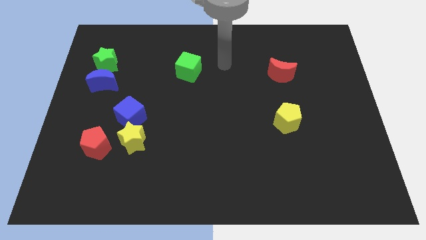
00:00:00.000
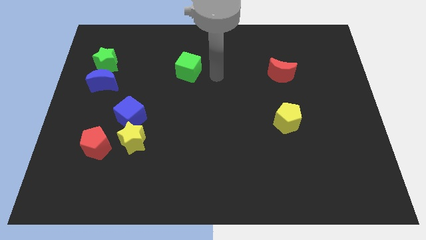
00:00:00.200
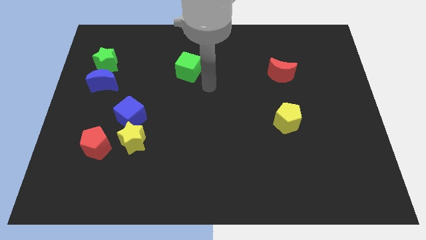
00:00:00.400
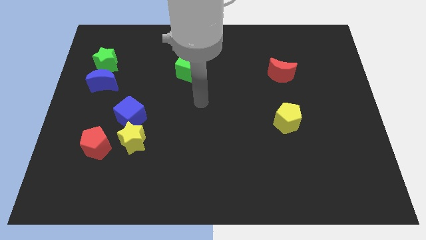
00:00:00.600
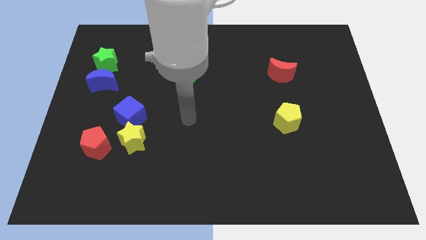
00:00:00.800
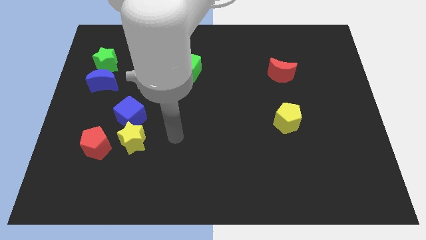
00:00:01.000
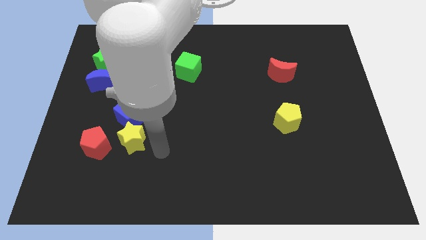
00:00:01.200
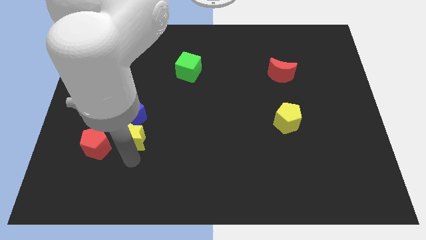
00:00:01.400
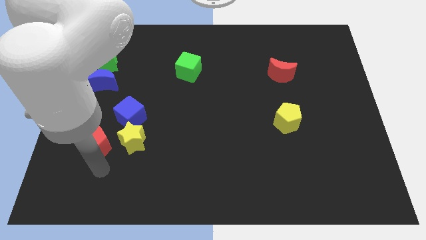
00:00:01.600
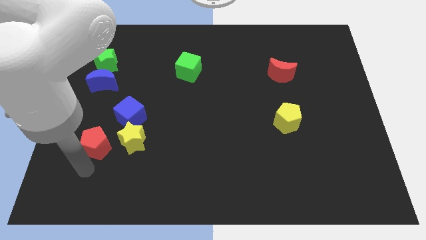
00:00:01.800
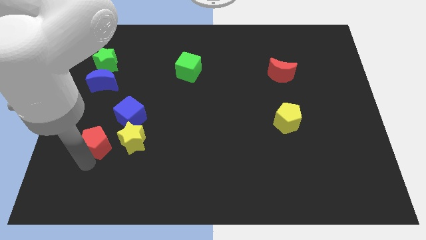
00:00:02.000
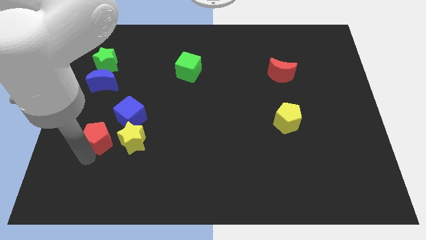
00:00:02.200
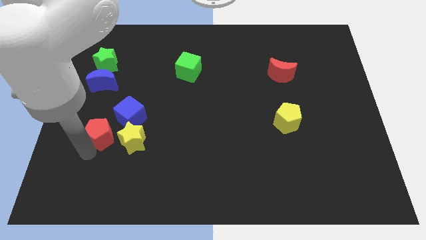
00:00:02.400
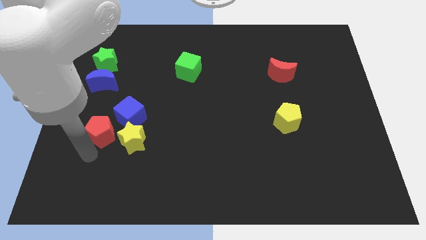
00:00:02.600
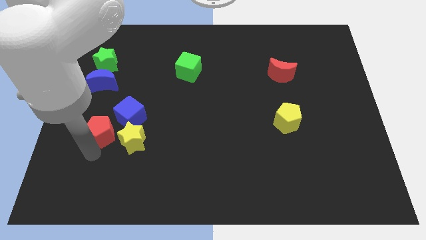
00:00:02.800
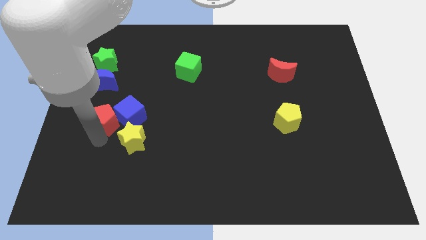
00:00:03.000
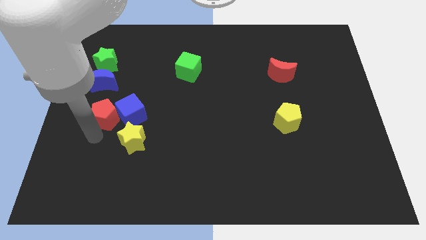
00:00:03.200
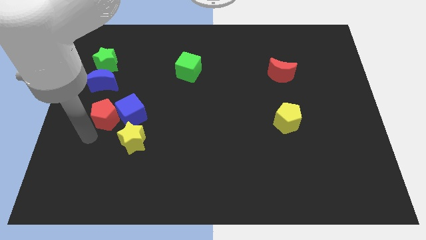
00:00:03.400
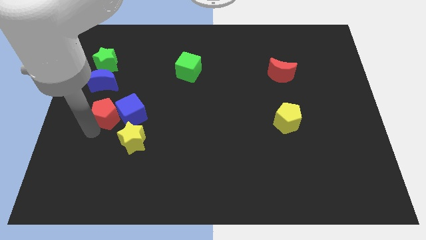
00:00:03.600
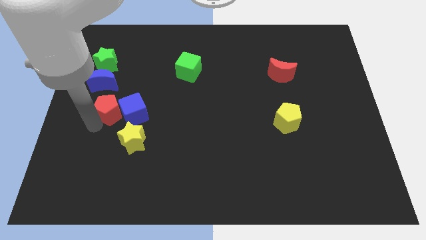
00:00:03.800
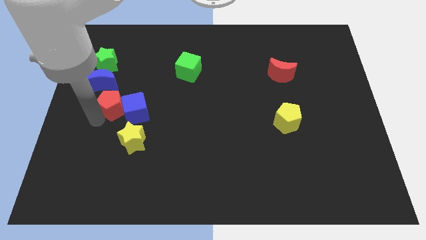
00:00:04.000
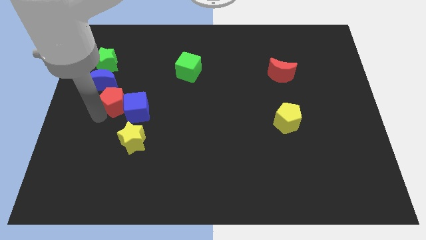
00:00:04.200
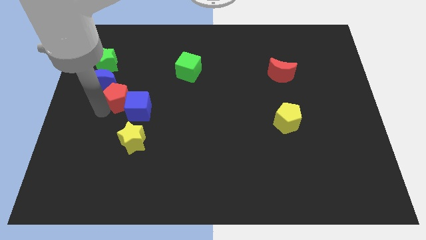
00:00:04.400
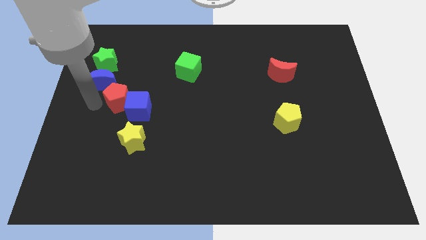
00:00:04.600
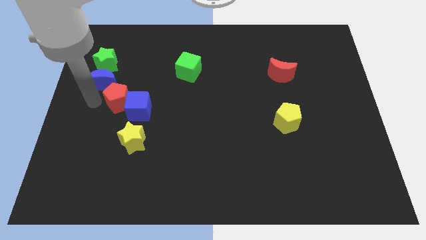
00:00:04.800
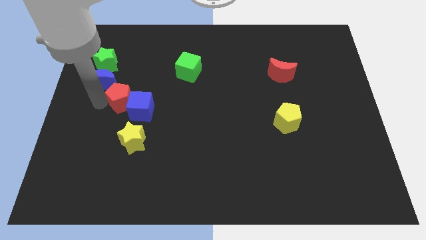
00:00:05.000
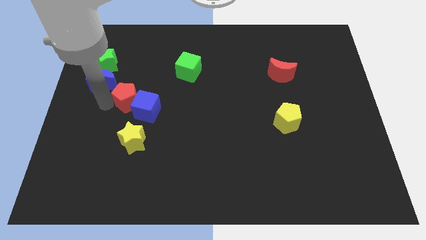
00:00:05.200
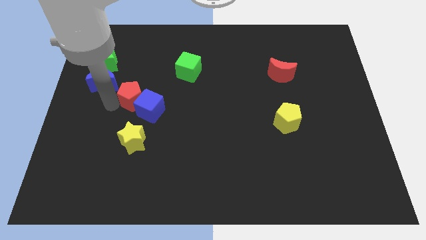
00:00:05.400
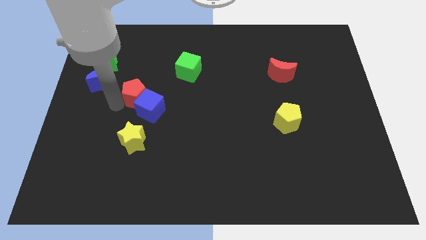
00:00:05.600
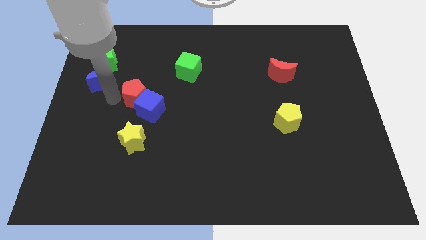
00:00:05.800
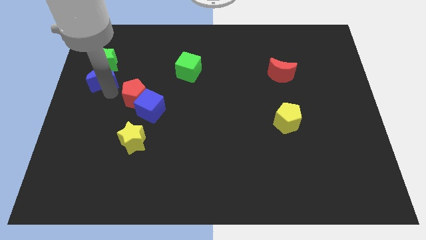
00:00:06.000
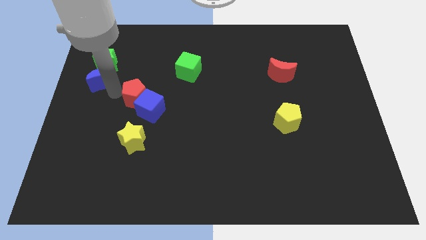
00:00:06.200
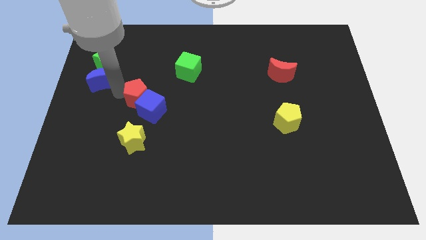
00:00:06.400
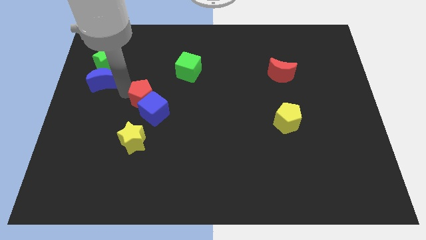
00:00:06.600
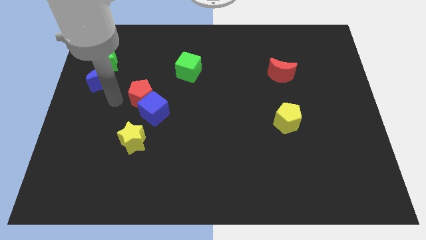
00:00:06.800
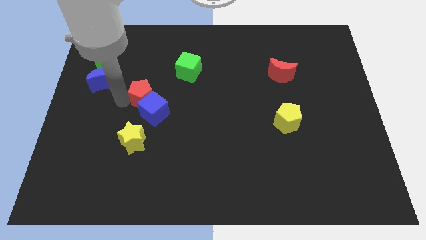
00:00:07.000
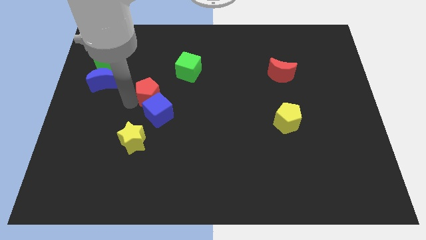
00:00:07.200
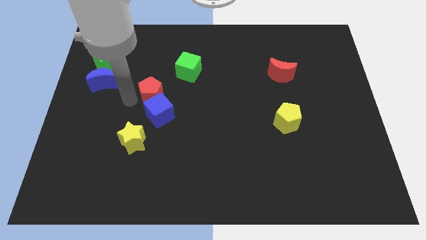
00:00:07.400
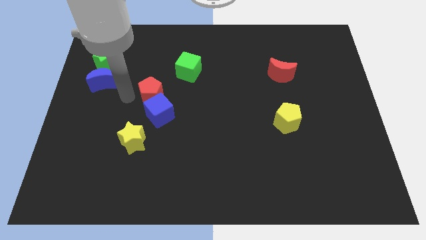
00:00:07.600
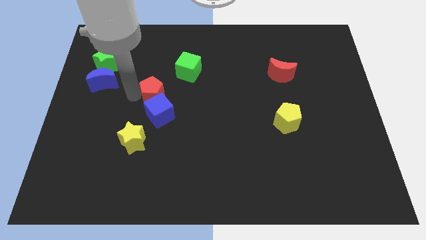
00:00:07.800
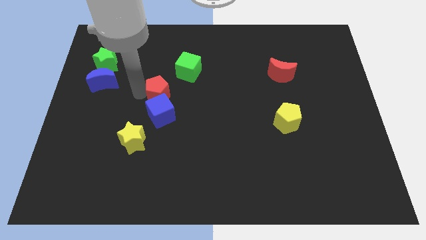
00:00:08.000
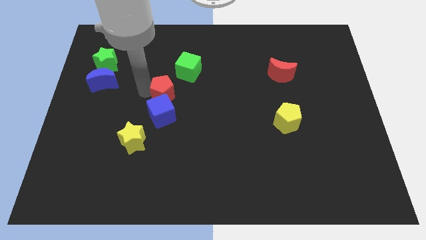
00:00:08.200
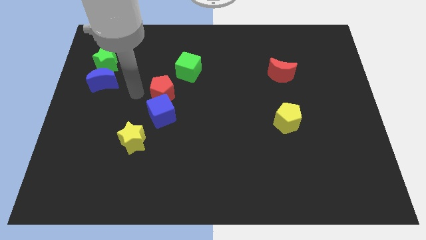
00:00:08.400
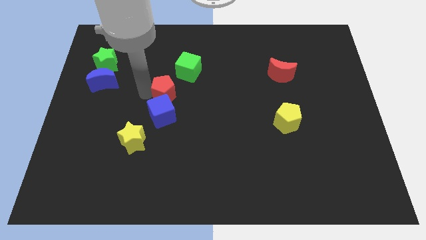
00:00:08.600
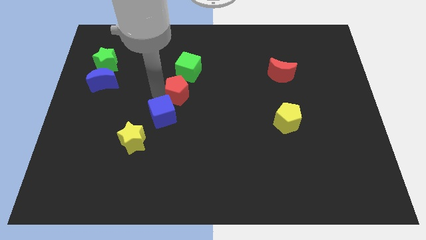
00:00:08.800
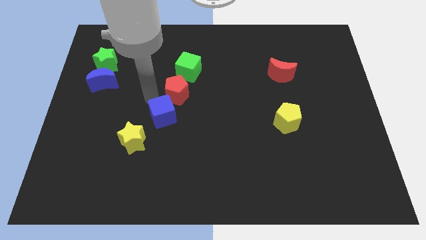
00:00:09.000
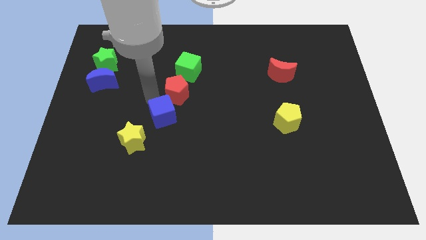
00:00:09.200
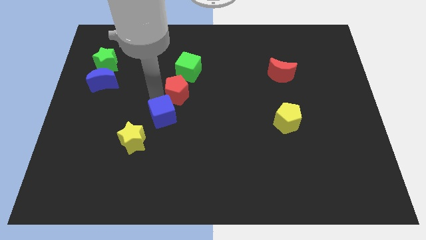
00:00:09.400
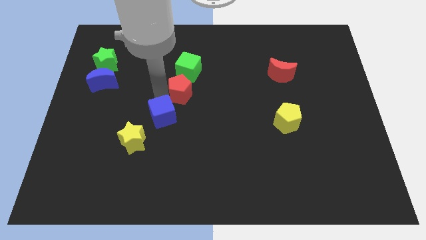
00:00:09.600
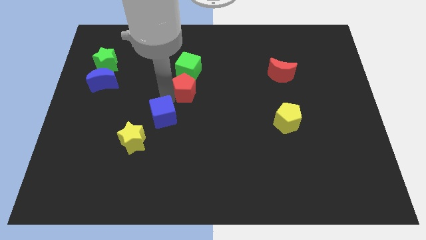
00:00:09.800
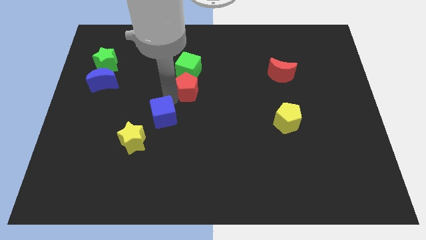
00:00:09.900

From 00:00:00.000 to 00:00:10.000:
move the red pentagon diagonally down and to the right of the green cube

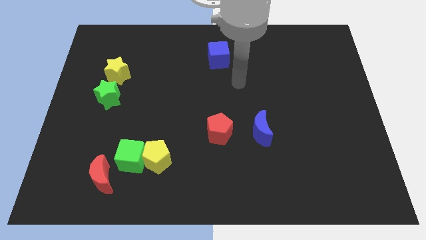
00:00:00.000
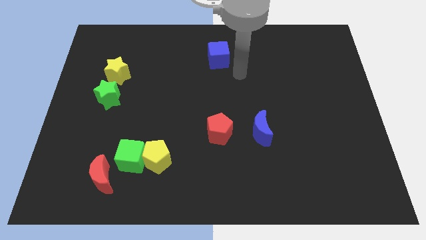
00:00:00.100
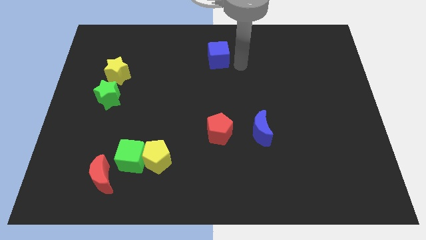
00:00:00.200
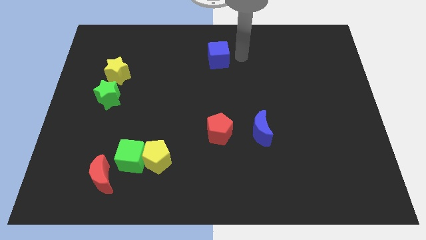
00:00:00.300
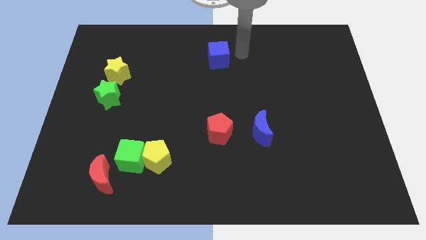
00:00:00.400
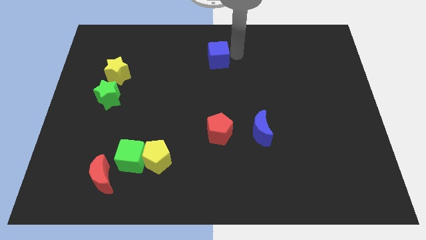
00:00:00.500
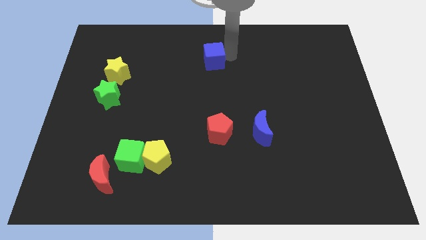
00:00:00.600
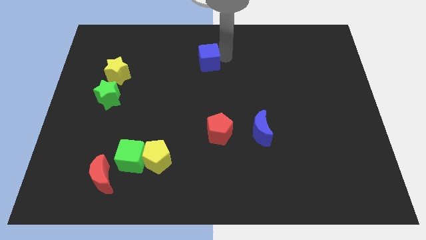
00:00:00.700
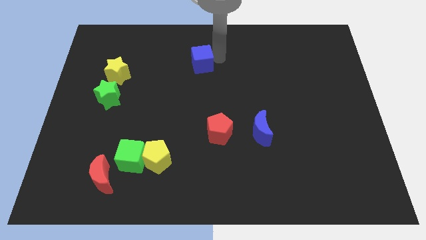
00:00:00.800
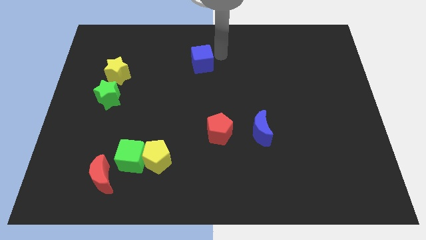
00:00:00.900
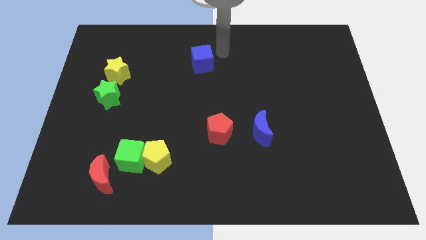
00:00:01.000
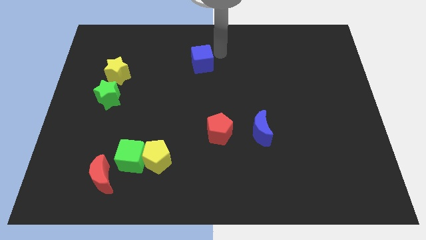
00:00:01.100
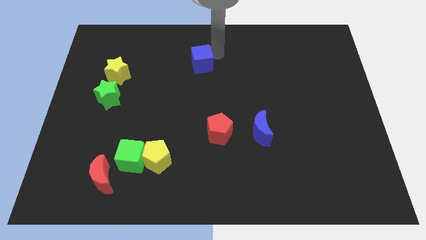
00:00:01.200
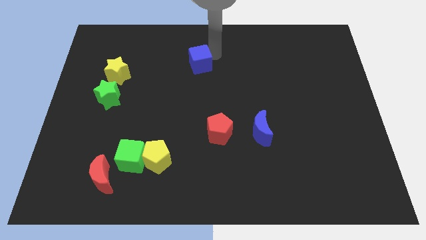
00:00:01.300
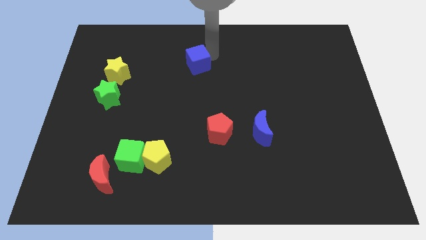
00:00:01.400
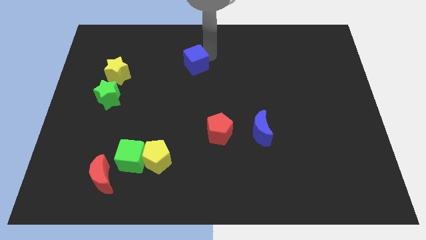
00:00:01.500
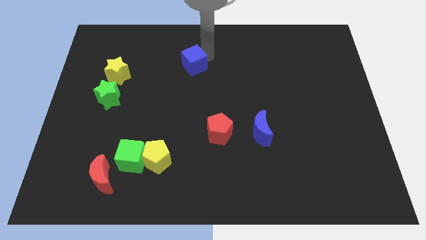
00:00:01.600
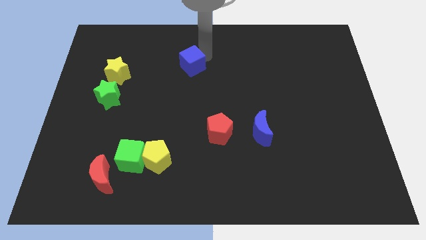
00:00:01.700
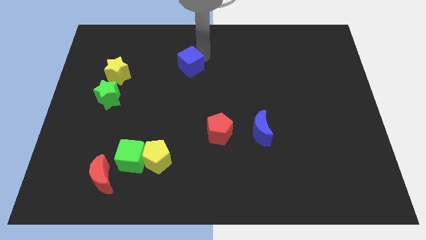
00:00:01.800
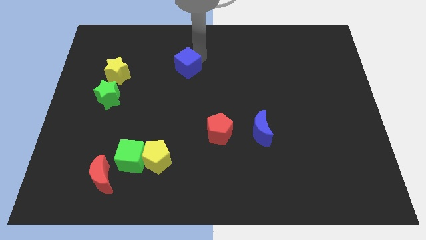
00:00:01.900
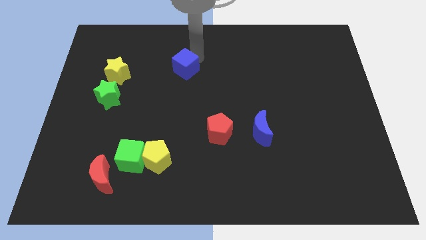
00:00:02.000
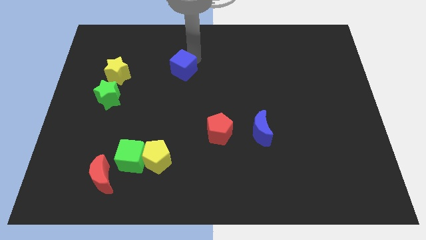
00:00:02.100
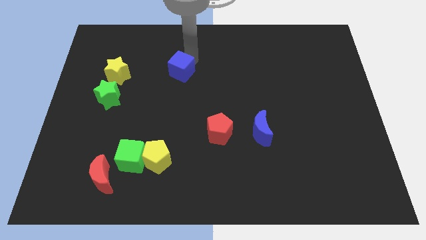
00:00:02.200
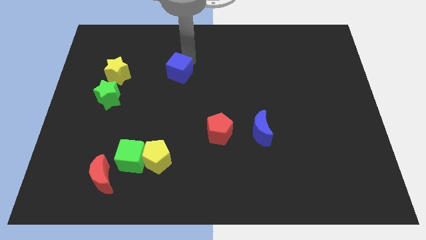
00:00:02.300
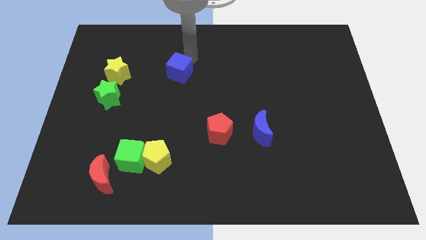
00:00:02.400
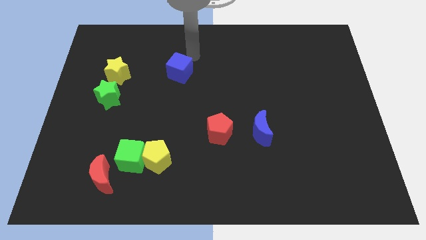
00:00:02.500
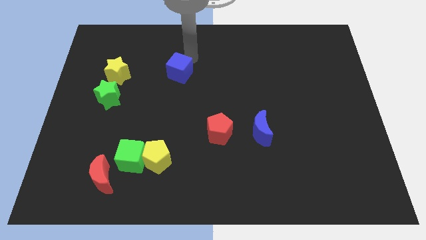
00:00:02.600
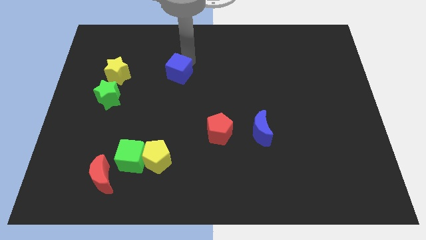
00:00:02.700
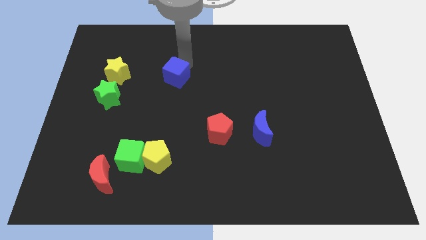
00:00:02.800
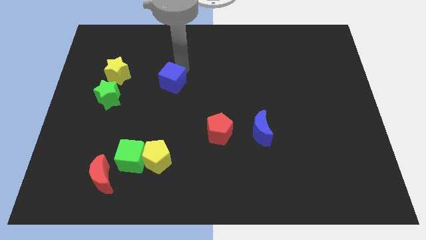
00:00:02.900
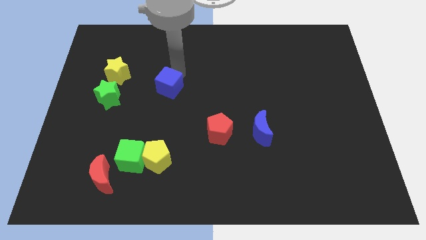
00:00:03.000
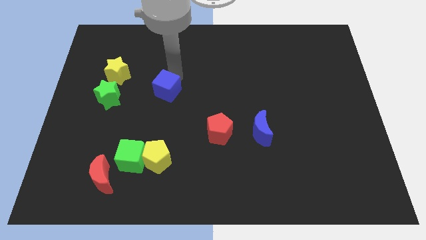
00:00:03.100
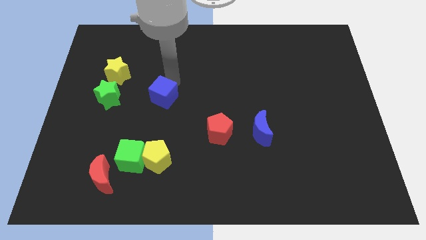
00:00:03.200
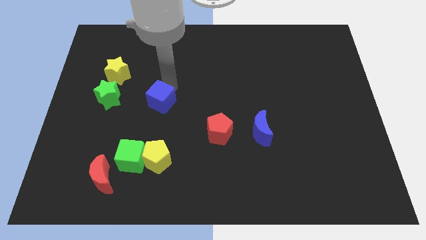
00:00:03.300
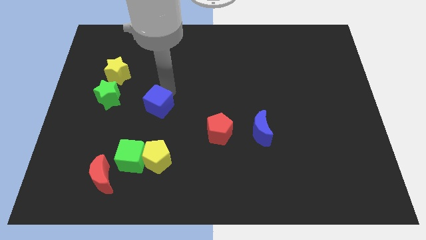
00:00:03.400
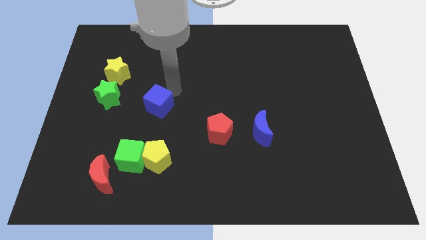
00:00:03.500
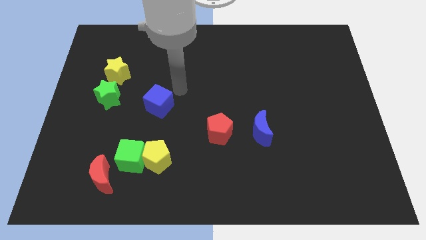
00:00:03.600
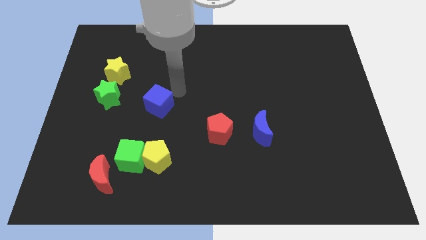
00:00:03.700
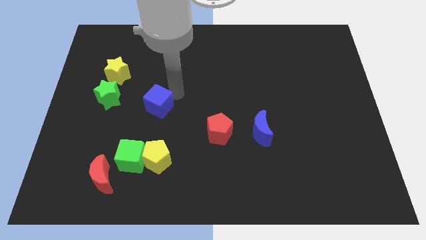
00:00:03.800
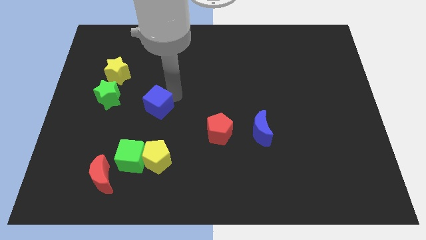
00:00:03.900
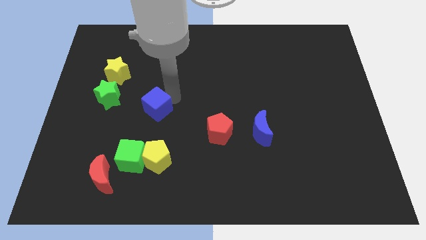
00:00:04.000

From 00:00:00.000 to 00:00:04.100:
slide the blue cube to the top side of the green cube
